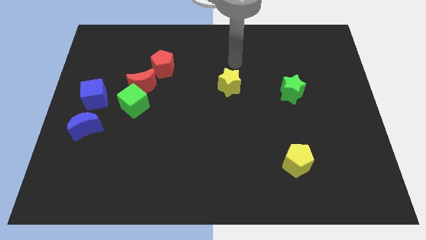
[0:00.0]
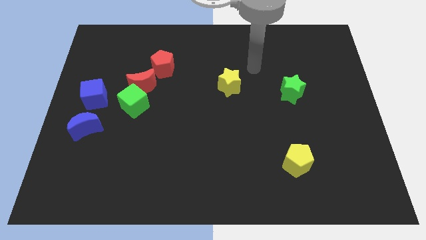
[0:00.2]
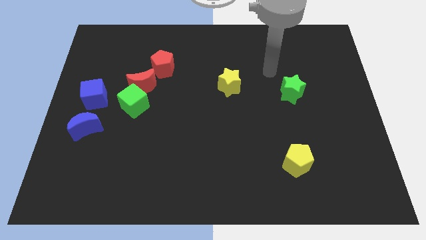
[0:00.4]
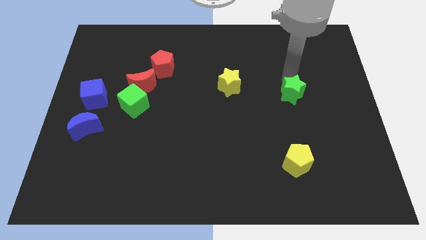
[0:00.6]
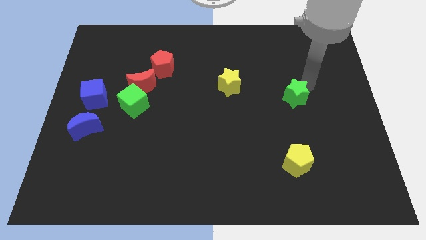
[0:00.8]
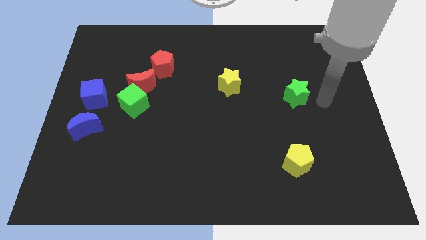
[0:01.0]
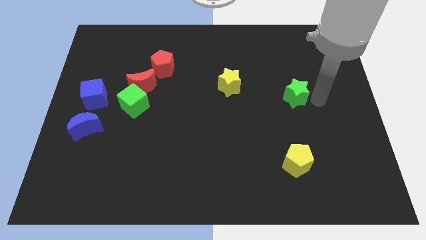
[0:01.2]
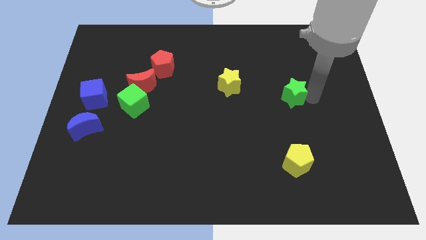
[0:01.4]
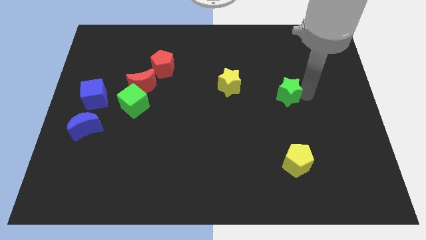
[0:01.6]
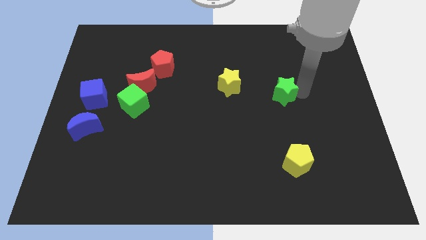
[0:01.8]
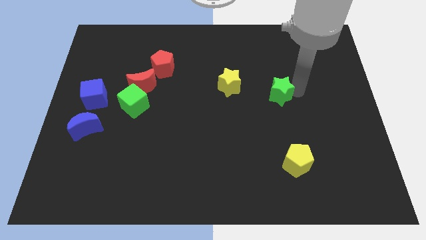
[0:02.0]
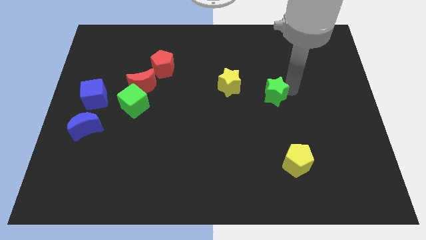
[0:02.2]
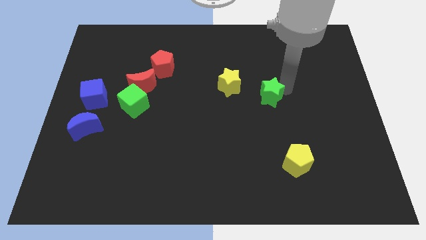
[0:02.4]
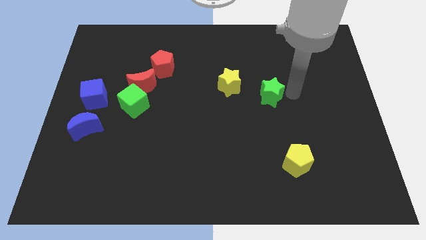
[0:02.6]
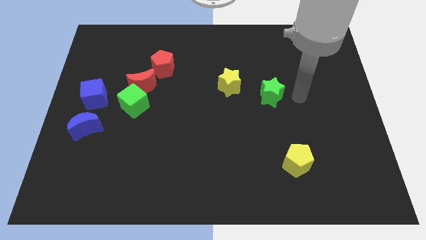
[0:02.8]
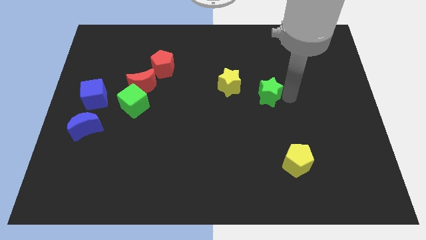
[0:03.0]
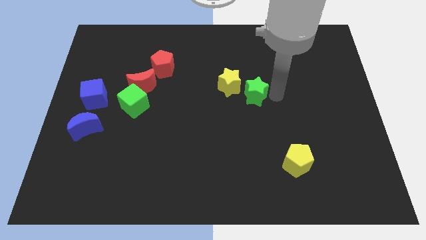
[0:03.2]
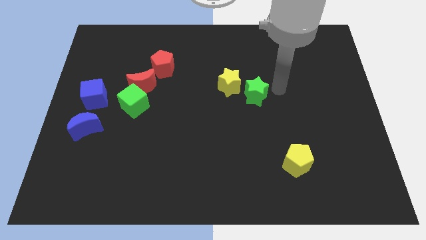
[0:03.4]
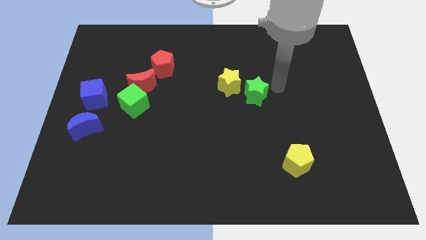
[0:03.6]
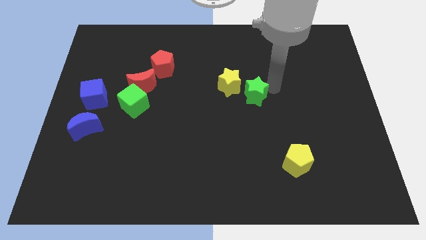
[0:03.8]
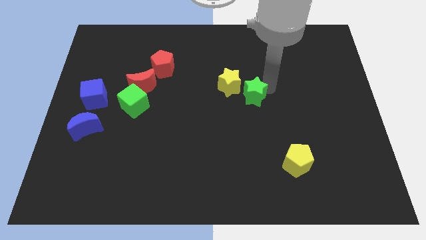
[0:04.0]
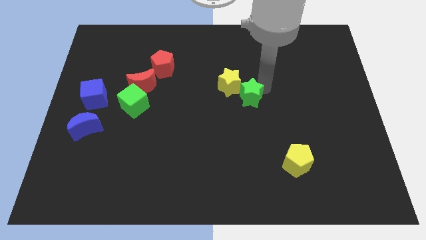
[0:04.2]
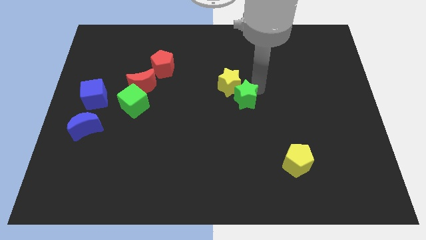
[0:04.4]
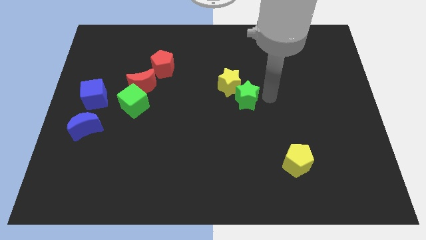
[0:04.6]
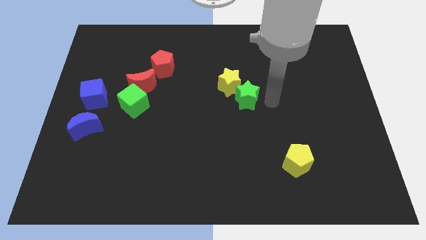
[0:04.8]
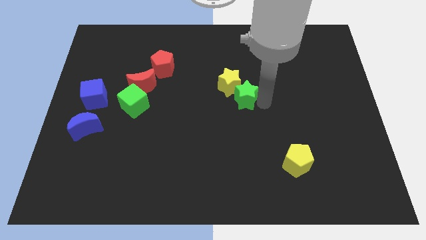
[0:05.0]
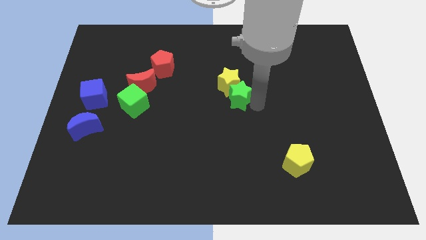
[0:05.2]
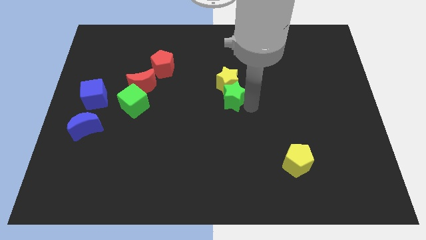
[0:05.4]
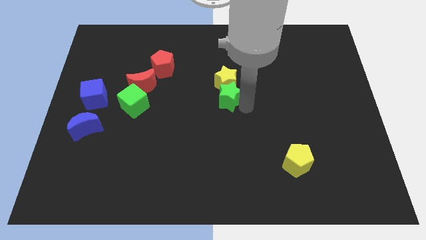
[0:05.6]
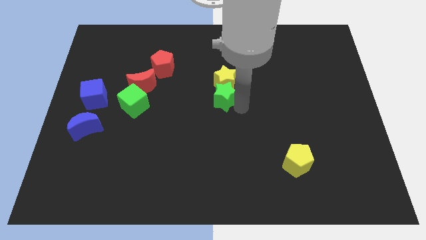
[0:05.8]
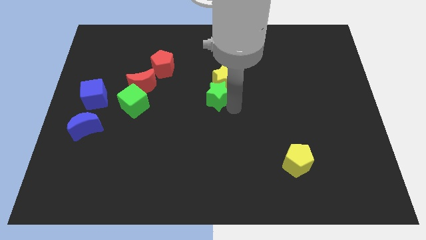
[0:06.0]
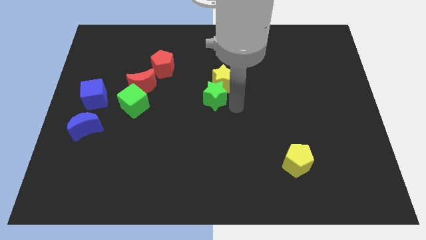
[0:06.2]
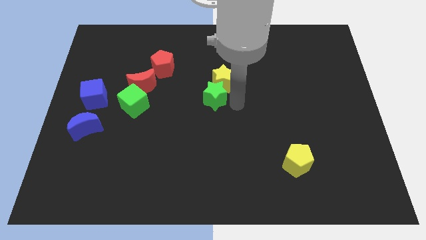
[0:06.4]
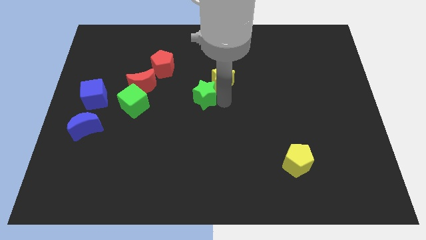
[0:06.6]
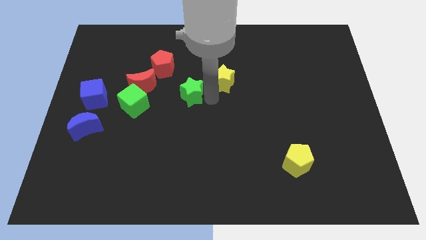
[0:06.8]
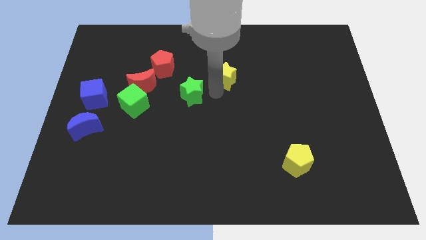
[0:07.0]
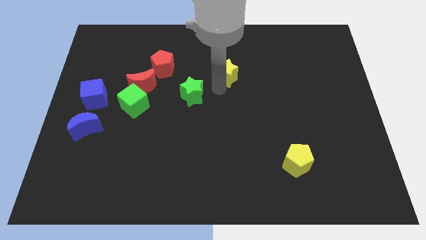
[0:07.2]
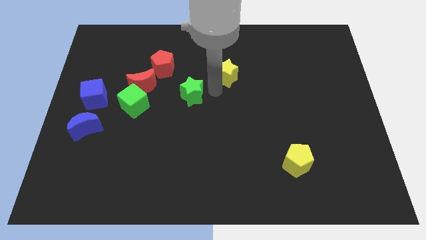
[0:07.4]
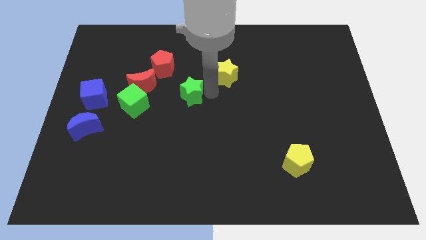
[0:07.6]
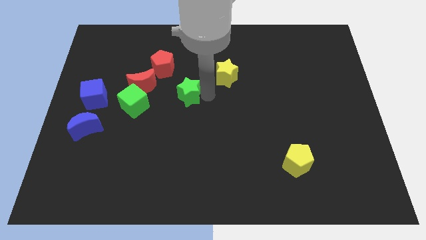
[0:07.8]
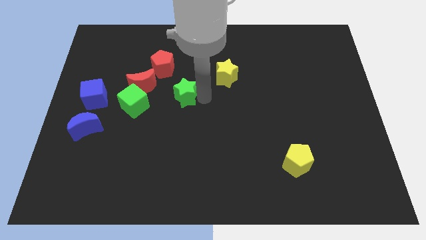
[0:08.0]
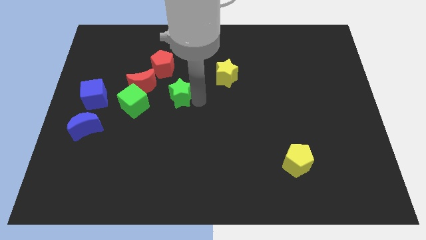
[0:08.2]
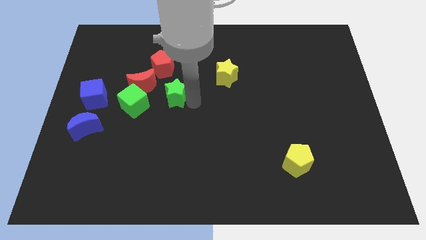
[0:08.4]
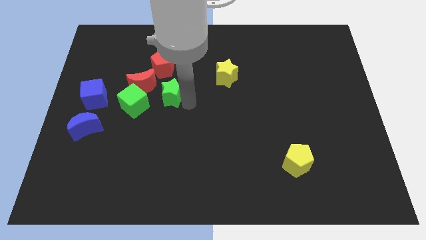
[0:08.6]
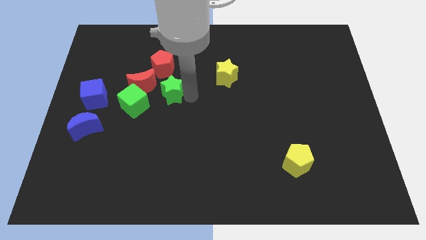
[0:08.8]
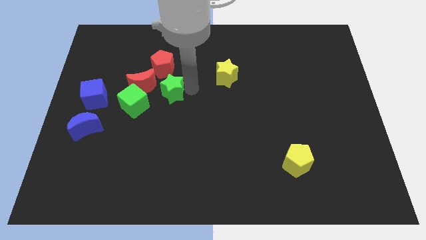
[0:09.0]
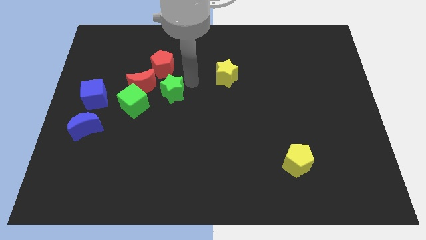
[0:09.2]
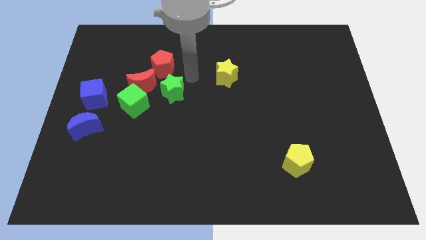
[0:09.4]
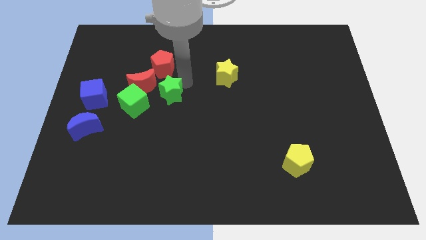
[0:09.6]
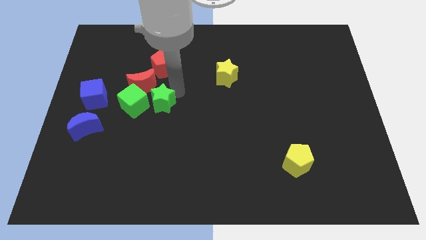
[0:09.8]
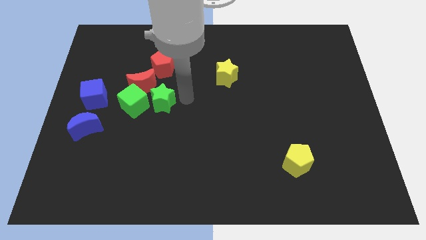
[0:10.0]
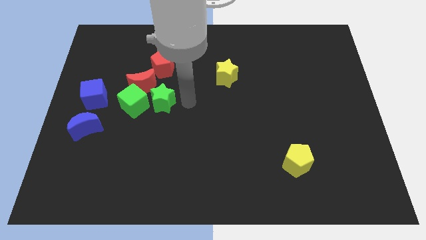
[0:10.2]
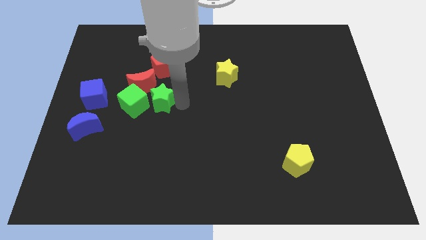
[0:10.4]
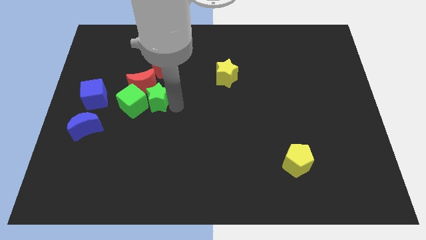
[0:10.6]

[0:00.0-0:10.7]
move the green star next to the green cube

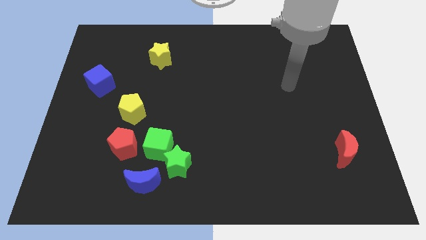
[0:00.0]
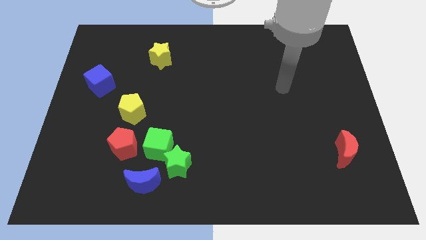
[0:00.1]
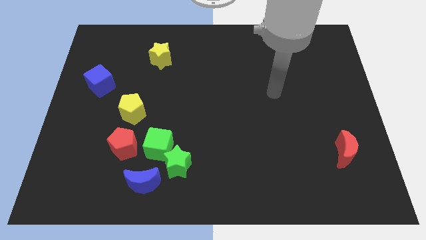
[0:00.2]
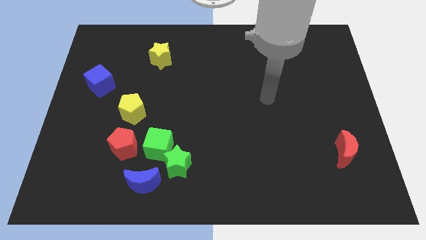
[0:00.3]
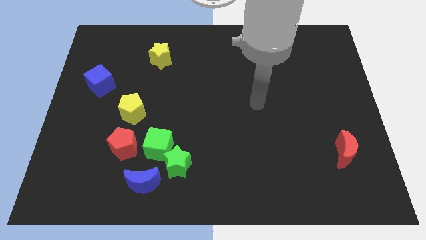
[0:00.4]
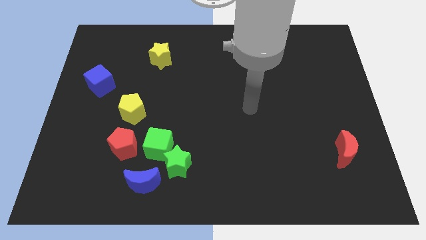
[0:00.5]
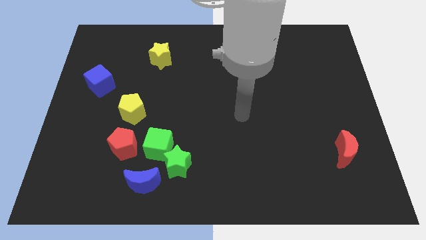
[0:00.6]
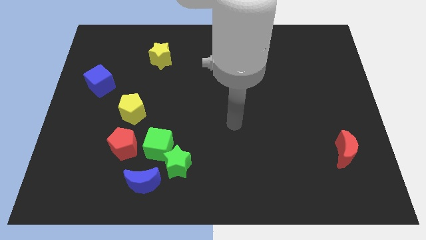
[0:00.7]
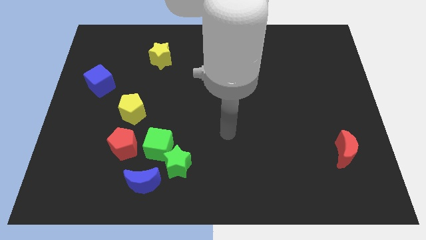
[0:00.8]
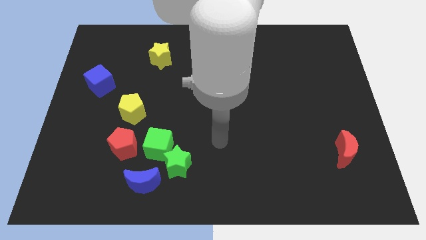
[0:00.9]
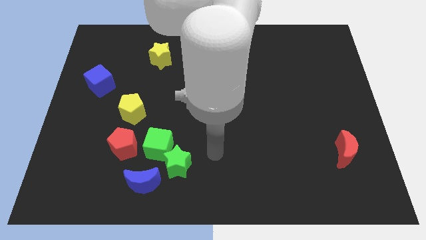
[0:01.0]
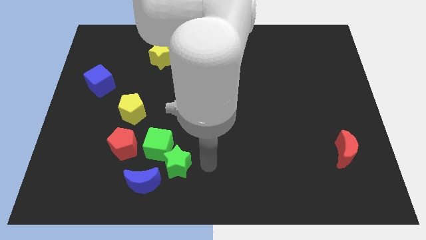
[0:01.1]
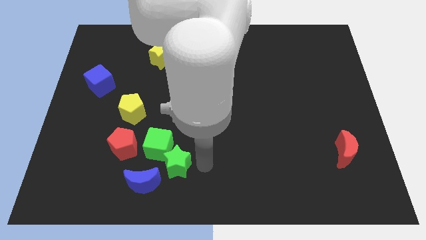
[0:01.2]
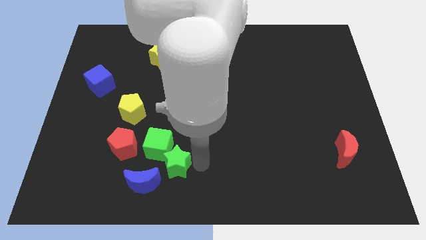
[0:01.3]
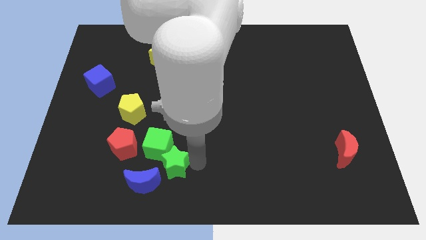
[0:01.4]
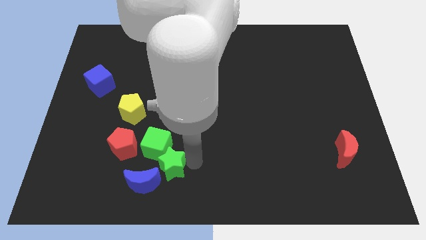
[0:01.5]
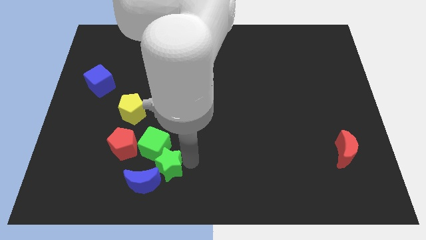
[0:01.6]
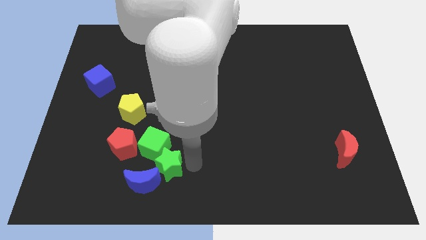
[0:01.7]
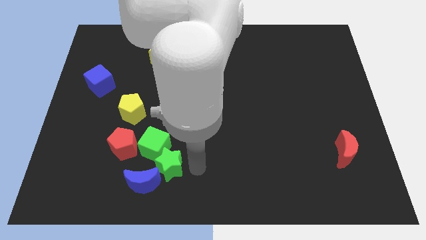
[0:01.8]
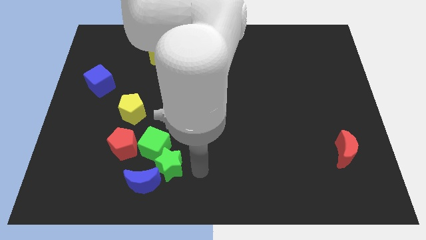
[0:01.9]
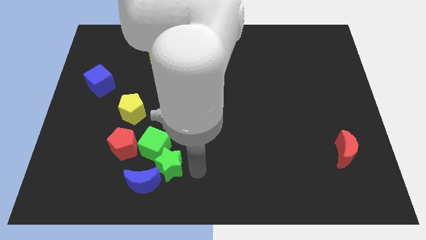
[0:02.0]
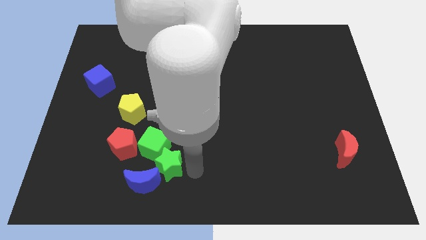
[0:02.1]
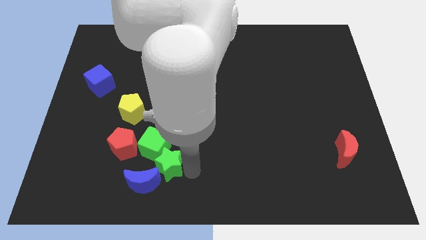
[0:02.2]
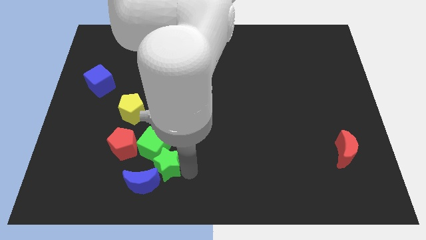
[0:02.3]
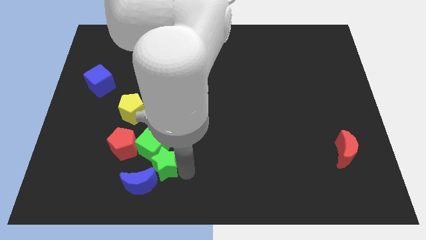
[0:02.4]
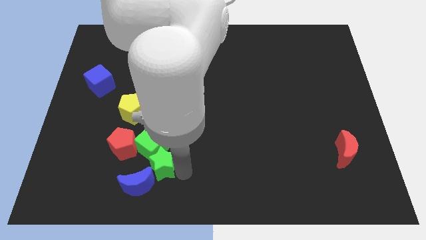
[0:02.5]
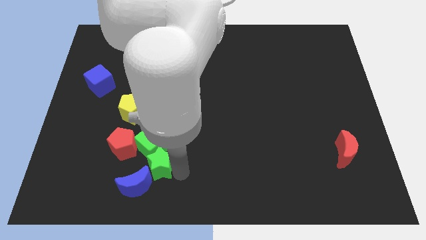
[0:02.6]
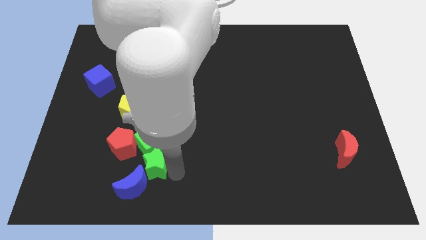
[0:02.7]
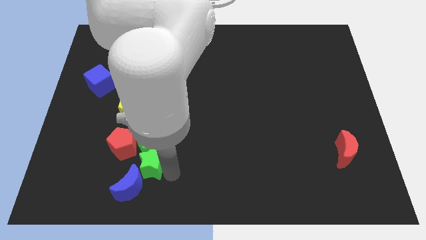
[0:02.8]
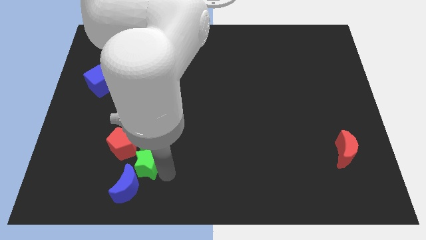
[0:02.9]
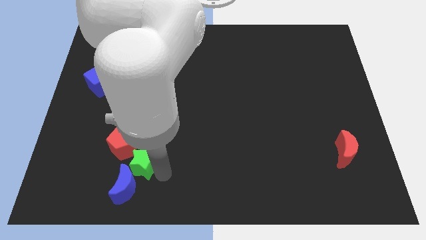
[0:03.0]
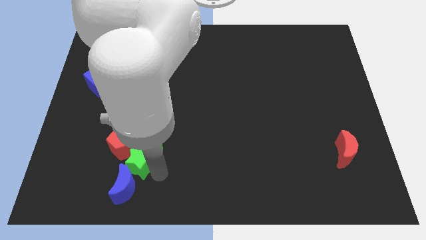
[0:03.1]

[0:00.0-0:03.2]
move the green star towards the red pentagon
